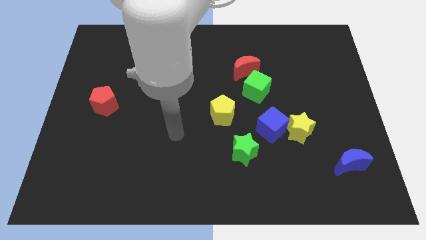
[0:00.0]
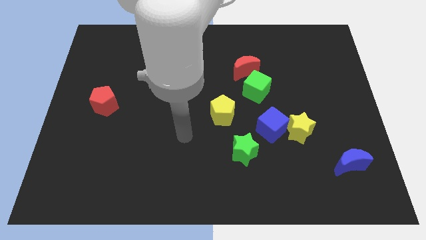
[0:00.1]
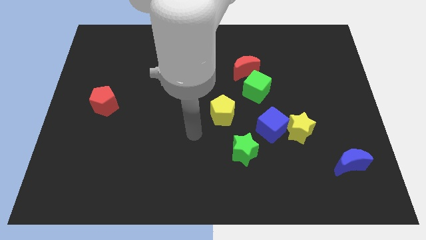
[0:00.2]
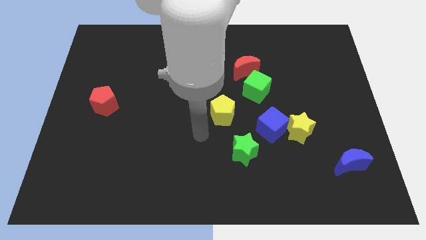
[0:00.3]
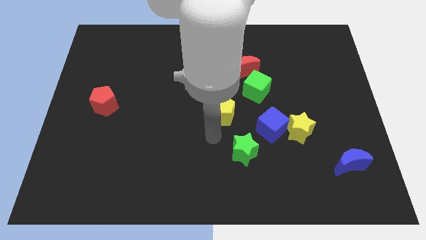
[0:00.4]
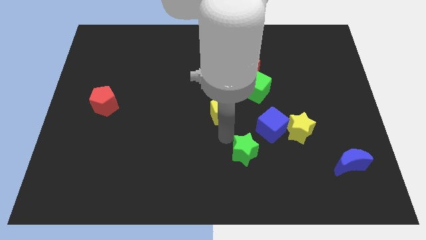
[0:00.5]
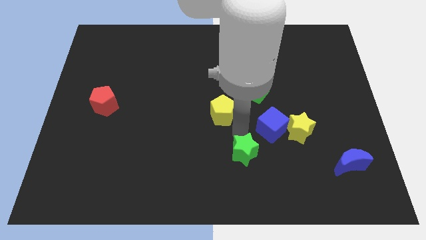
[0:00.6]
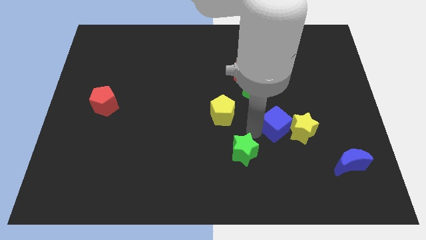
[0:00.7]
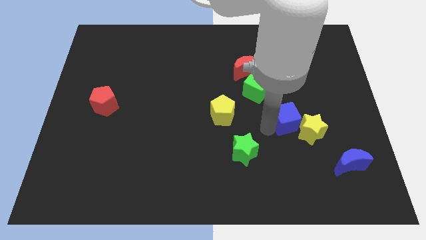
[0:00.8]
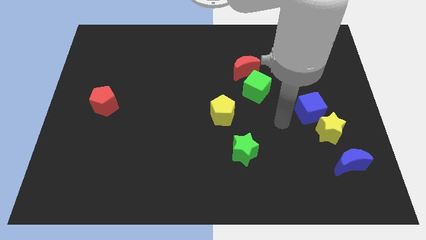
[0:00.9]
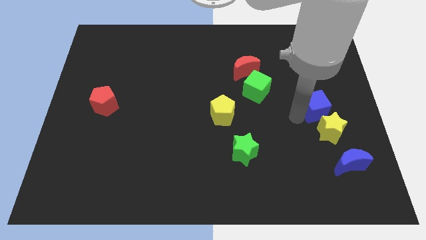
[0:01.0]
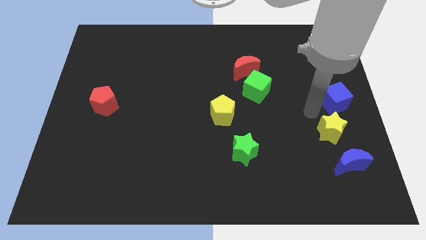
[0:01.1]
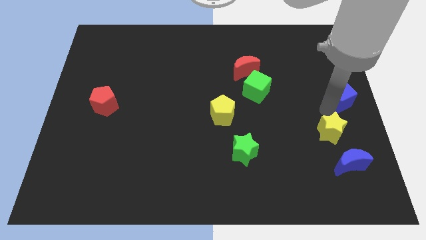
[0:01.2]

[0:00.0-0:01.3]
pull the yellow star apart from the blue cube

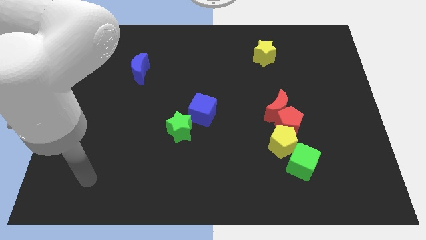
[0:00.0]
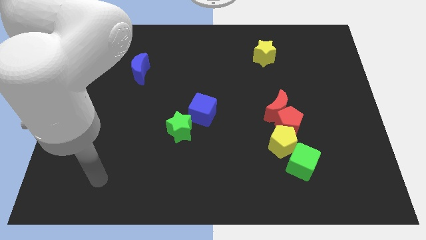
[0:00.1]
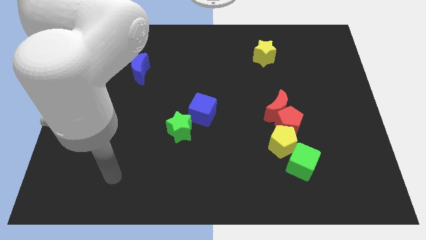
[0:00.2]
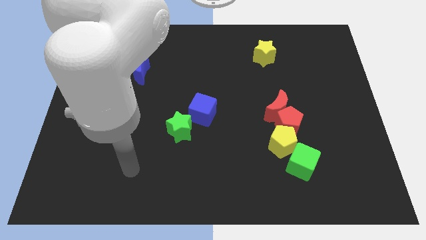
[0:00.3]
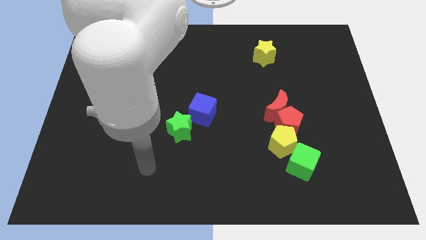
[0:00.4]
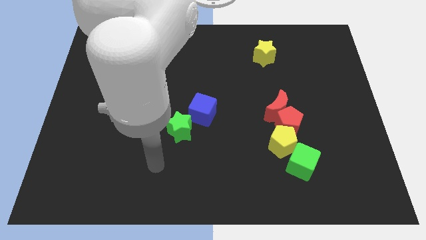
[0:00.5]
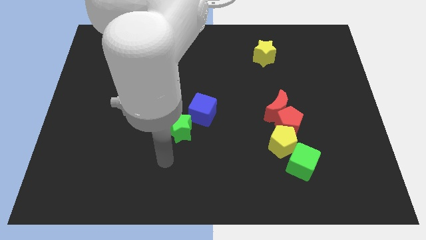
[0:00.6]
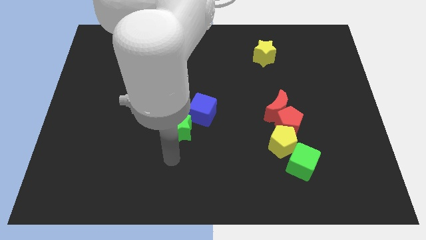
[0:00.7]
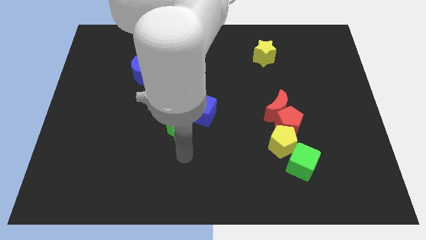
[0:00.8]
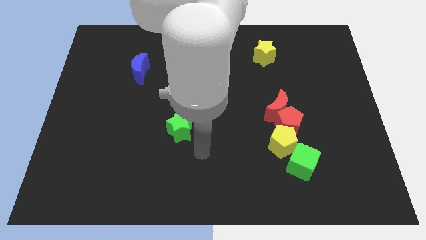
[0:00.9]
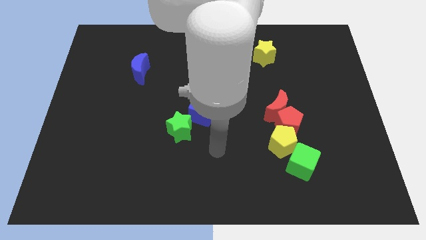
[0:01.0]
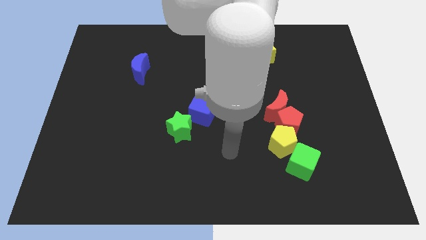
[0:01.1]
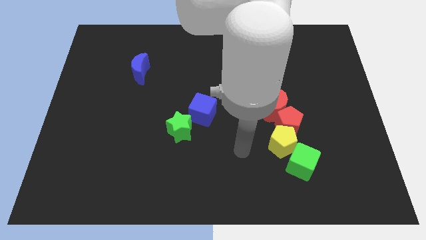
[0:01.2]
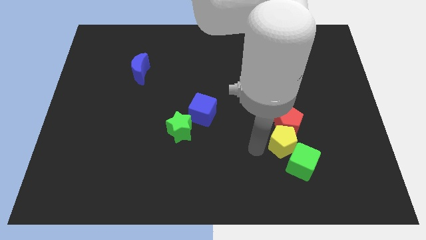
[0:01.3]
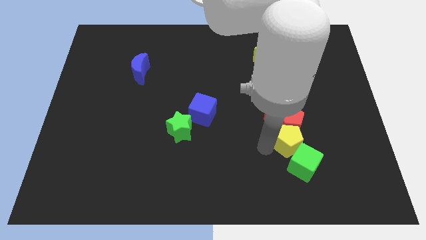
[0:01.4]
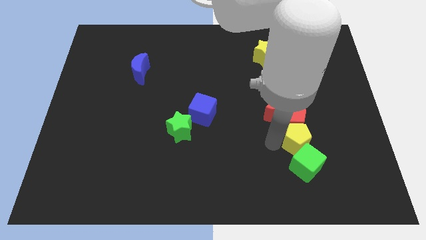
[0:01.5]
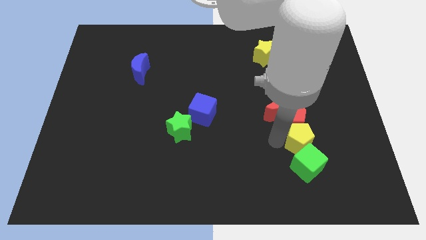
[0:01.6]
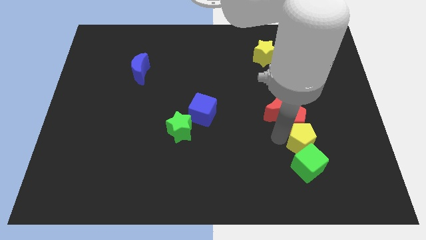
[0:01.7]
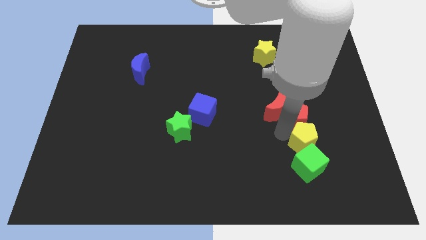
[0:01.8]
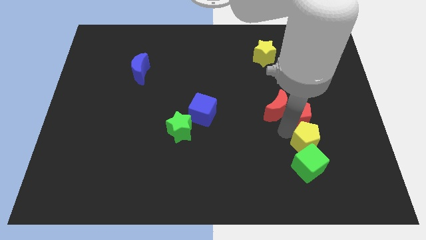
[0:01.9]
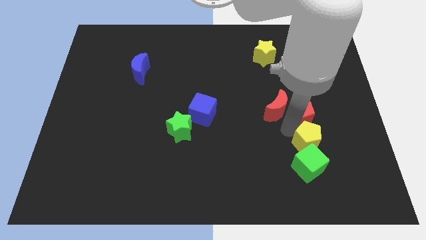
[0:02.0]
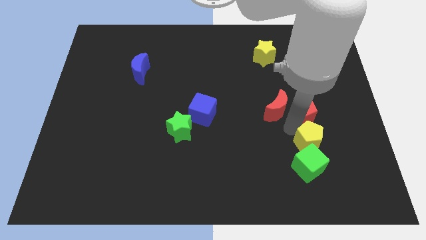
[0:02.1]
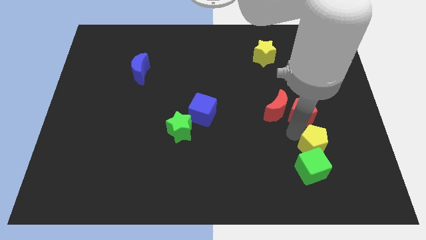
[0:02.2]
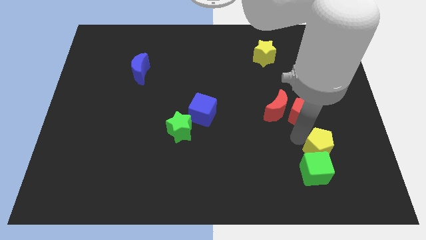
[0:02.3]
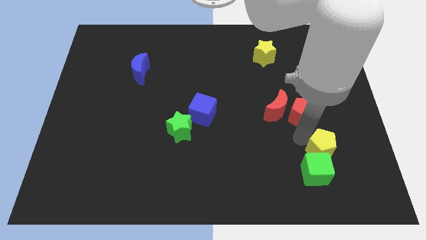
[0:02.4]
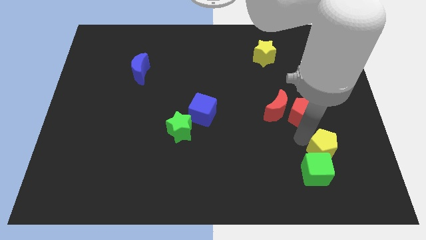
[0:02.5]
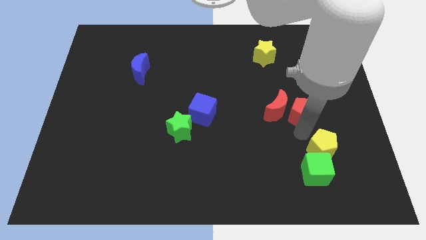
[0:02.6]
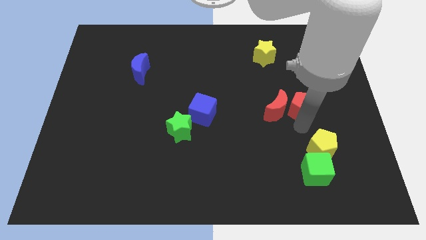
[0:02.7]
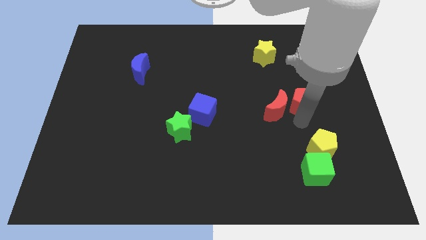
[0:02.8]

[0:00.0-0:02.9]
pull the red pentagon apart from the red moon, yellow pentagon, and green cube

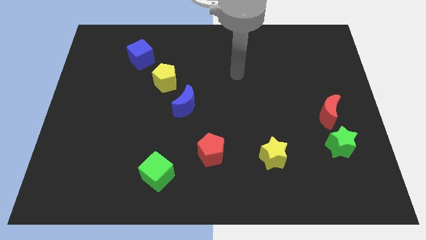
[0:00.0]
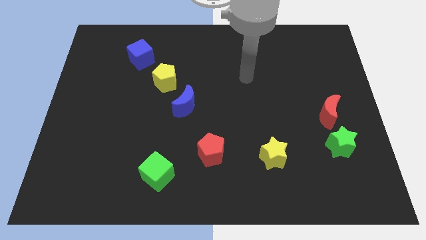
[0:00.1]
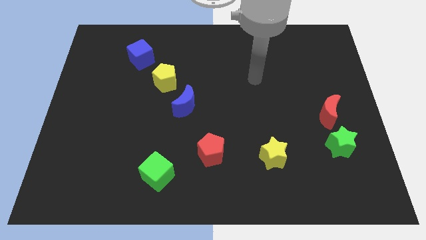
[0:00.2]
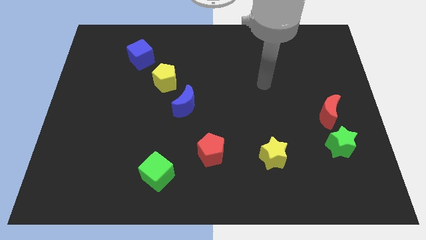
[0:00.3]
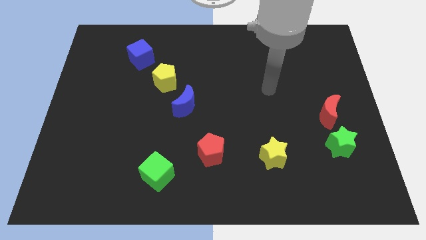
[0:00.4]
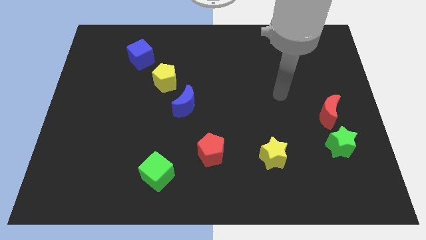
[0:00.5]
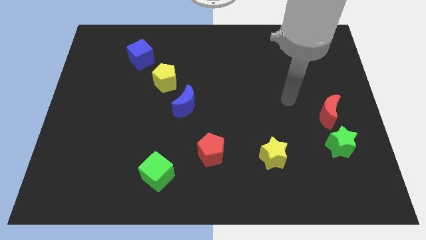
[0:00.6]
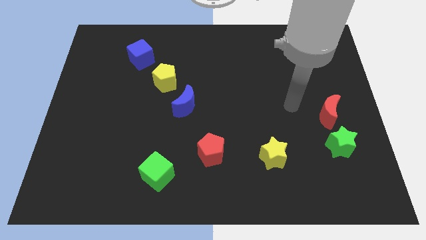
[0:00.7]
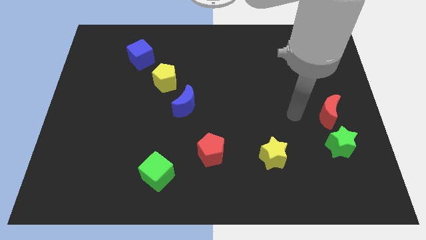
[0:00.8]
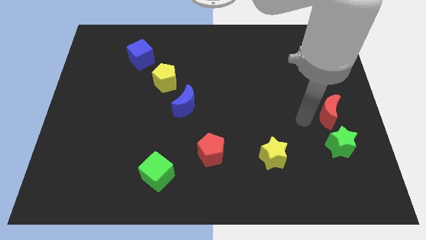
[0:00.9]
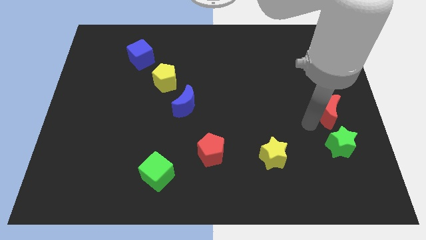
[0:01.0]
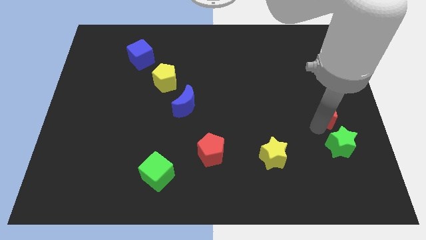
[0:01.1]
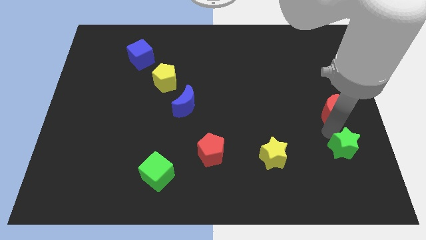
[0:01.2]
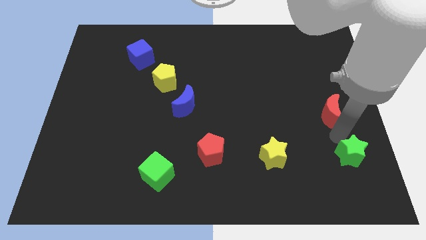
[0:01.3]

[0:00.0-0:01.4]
separate the red moon from the green star

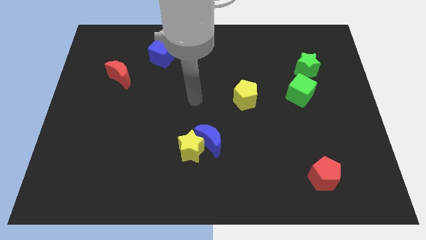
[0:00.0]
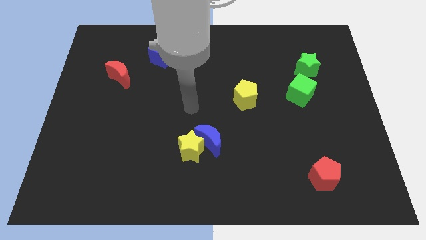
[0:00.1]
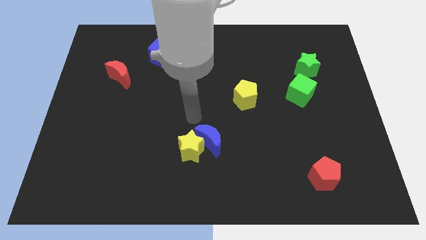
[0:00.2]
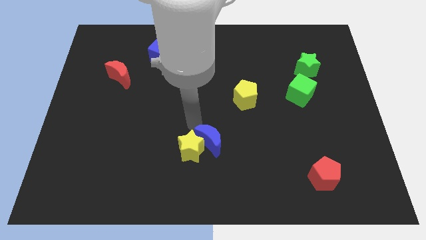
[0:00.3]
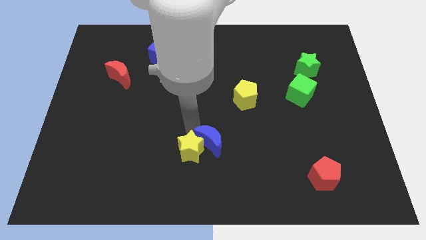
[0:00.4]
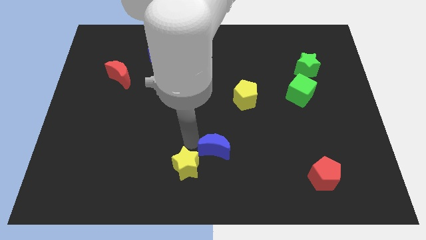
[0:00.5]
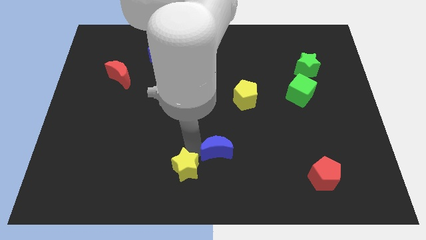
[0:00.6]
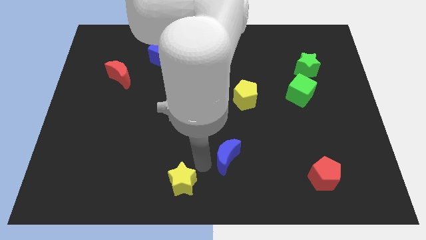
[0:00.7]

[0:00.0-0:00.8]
separate the blue moon from the yellow star

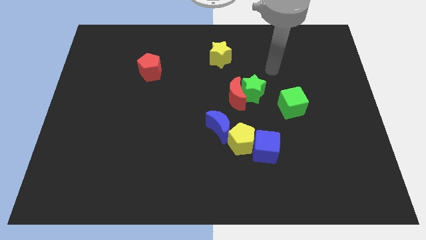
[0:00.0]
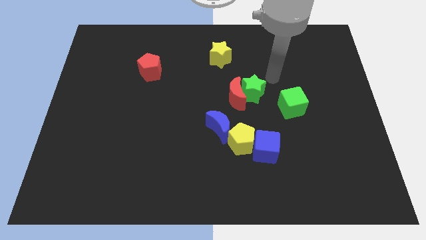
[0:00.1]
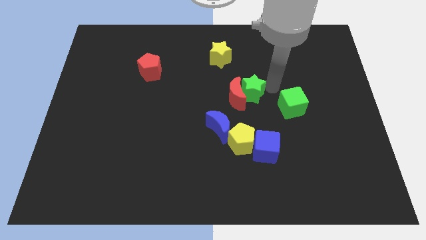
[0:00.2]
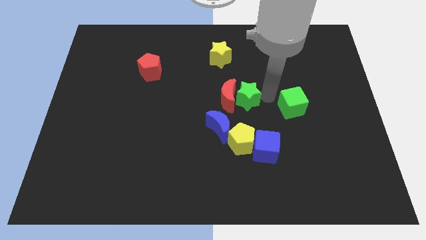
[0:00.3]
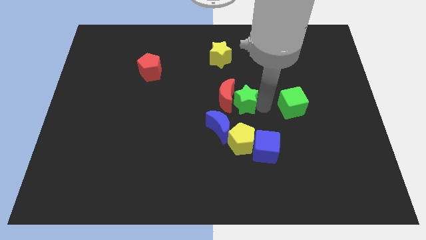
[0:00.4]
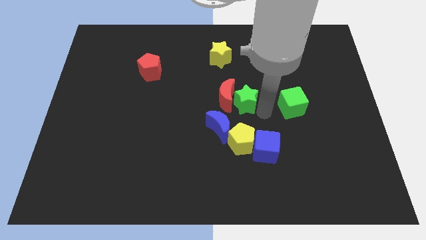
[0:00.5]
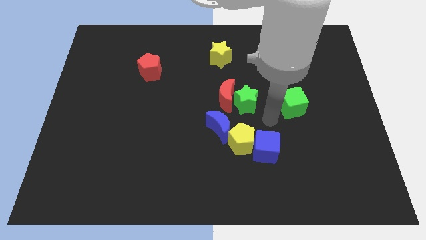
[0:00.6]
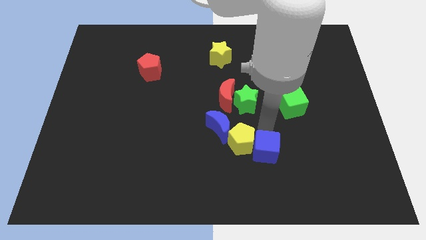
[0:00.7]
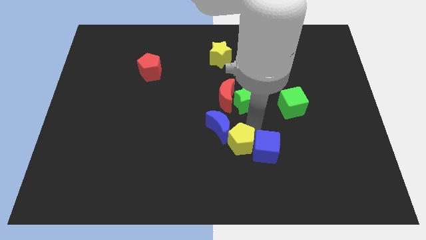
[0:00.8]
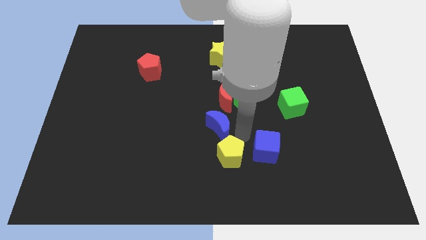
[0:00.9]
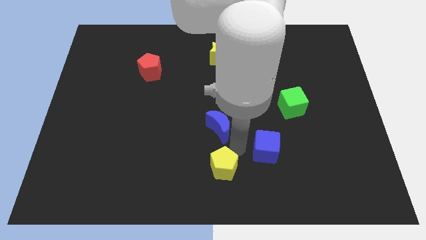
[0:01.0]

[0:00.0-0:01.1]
separate the blue cube from the yellow pentagon

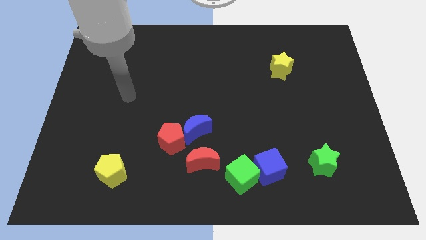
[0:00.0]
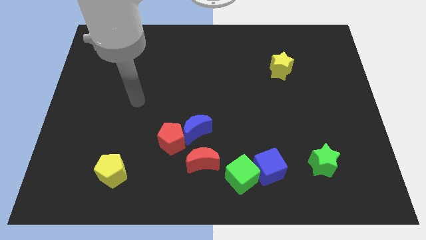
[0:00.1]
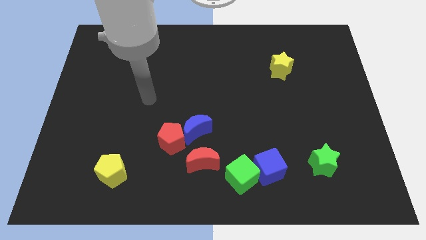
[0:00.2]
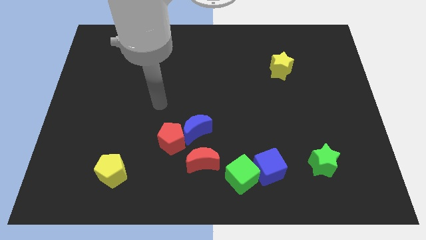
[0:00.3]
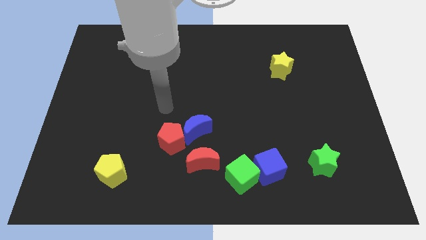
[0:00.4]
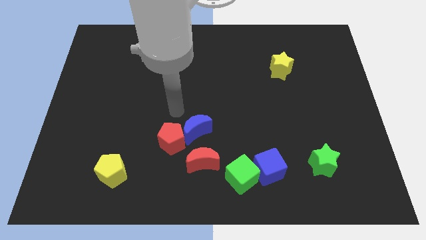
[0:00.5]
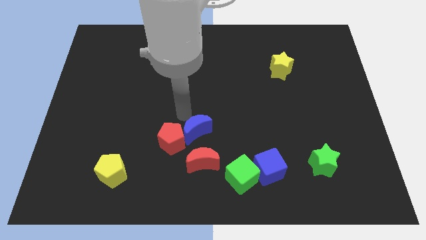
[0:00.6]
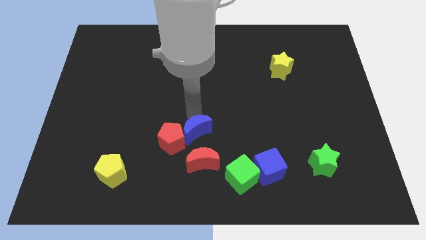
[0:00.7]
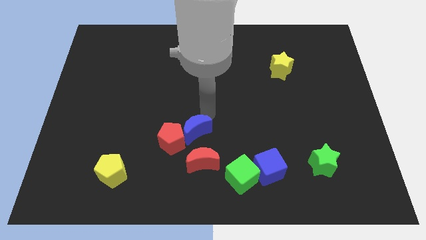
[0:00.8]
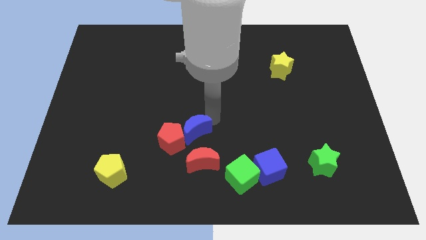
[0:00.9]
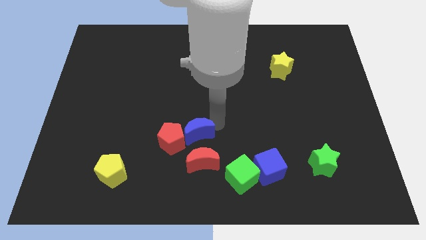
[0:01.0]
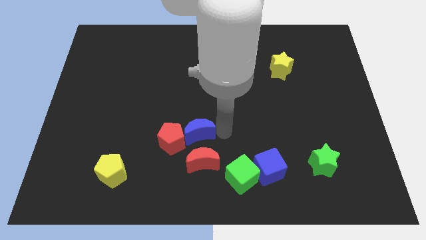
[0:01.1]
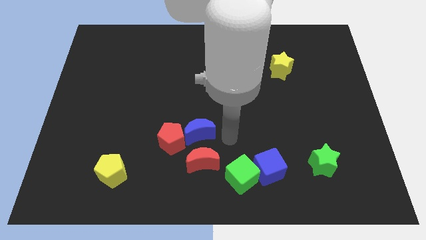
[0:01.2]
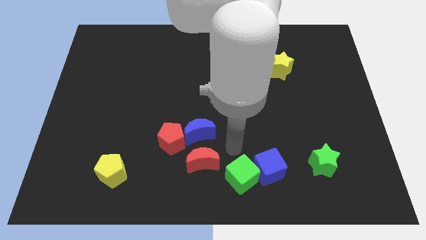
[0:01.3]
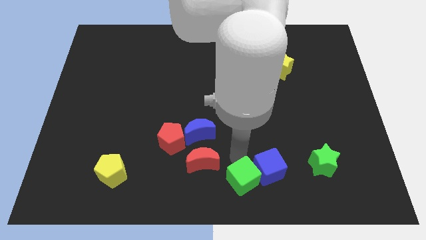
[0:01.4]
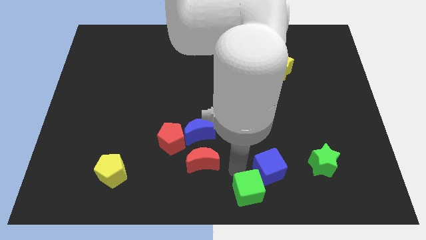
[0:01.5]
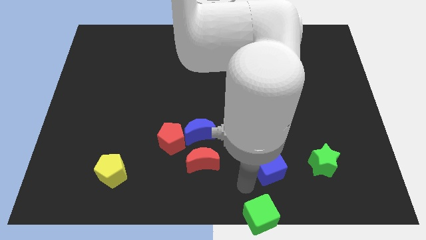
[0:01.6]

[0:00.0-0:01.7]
pull the blue cube apart from the green cube

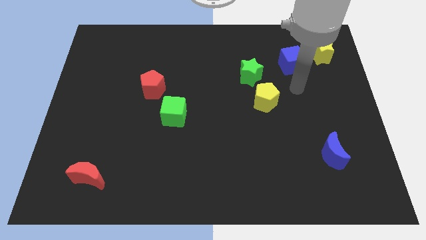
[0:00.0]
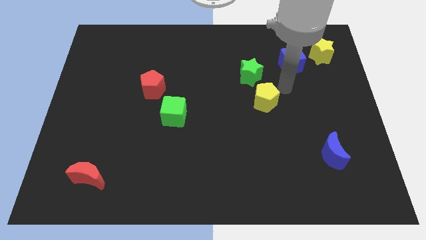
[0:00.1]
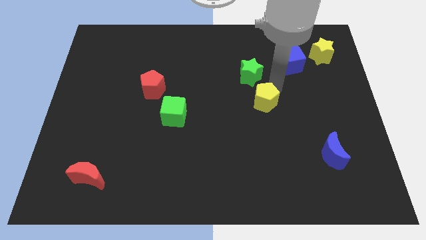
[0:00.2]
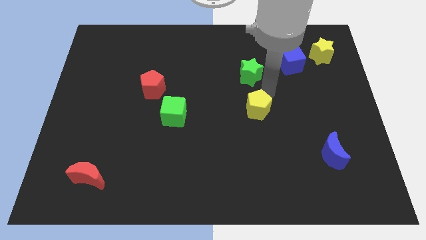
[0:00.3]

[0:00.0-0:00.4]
move the green star away from the yellow pentagon
